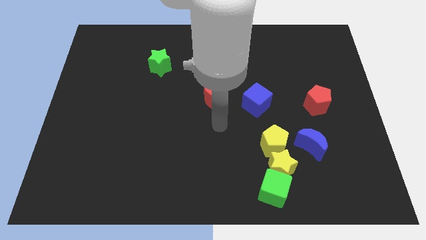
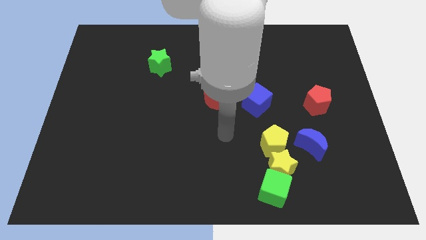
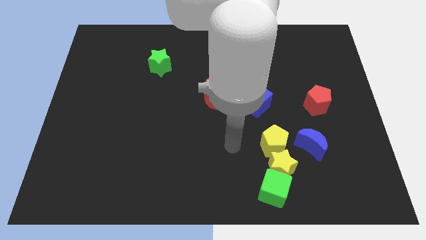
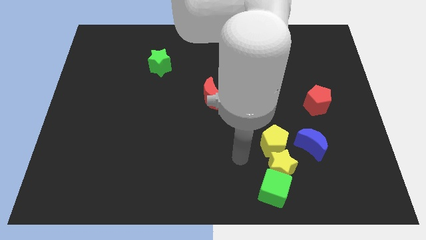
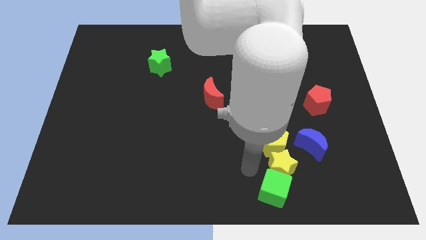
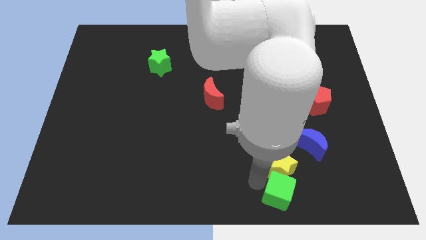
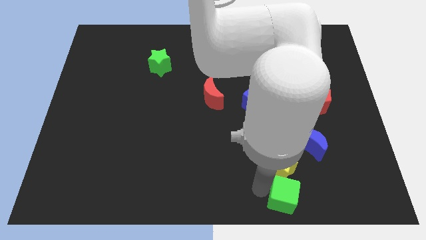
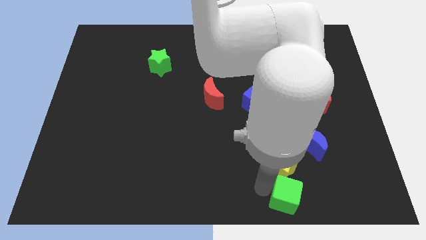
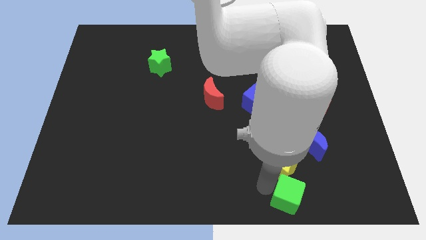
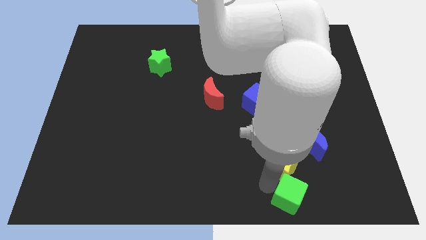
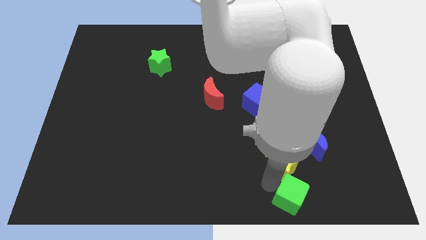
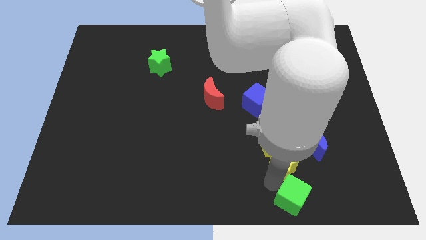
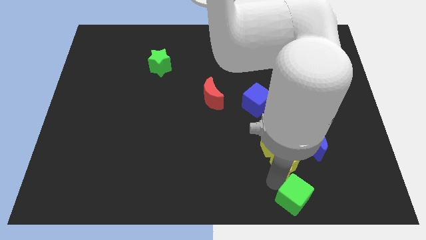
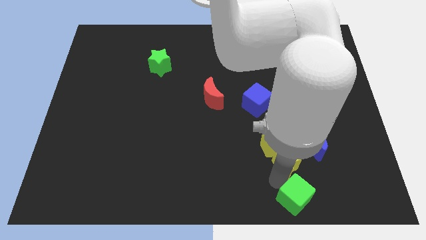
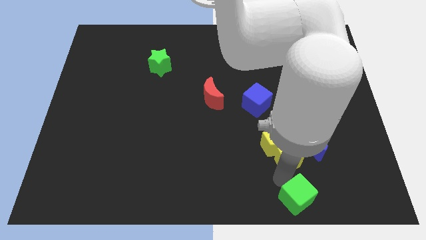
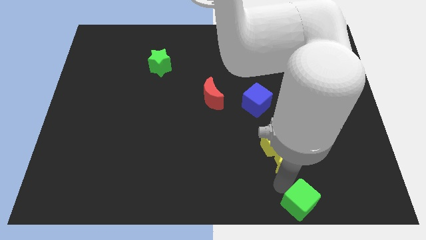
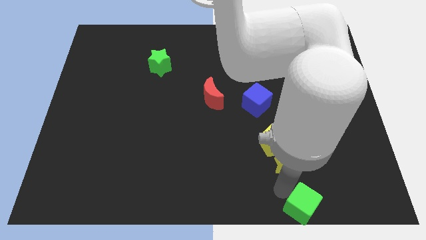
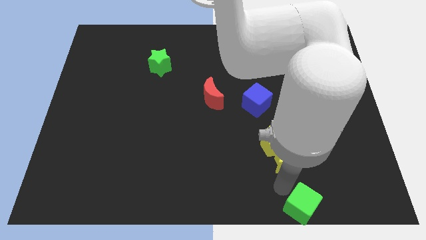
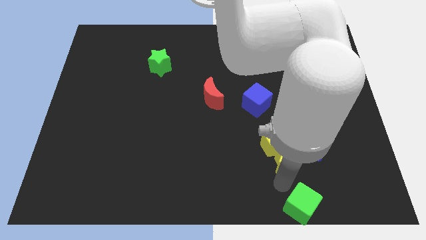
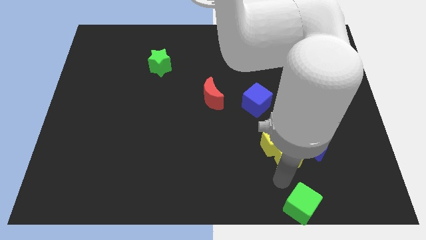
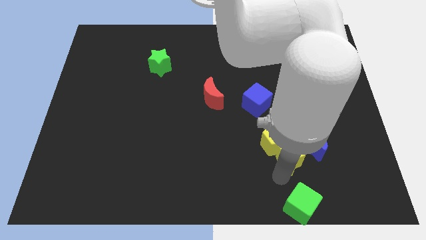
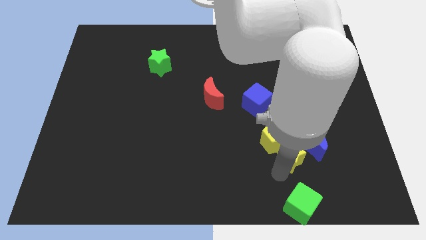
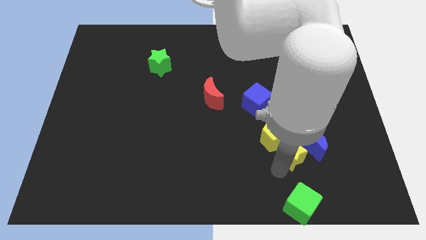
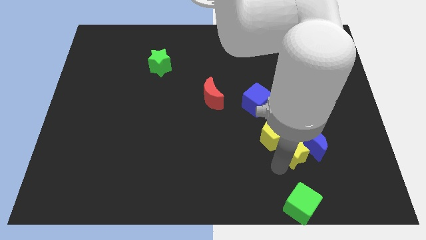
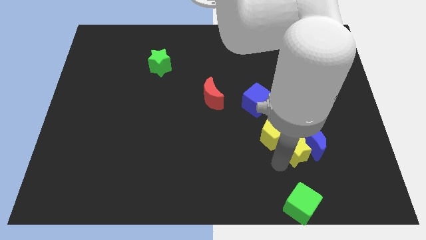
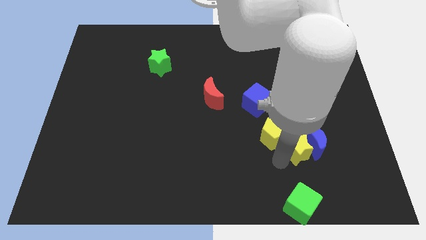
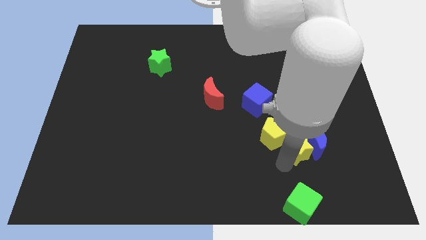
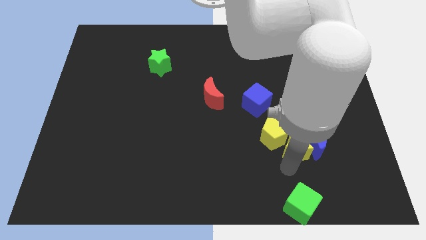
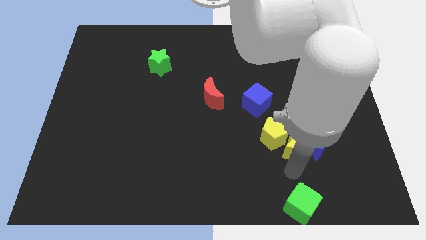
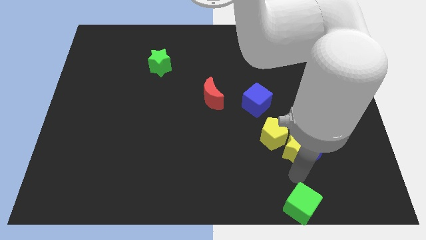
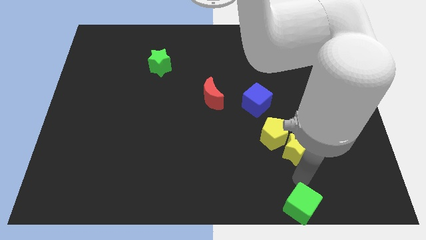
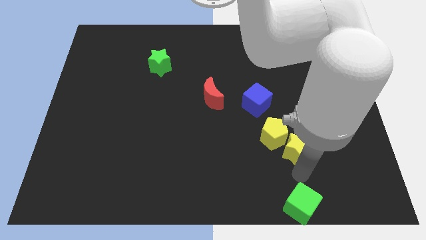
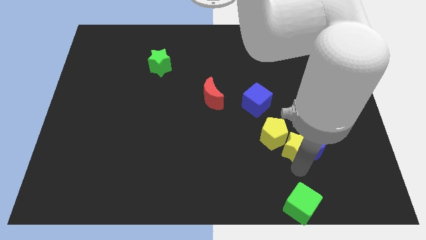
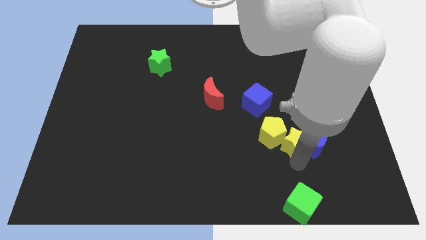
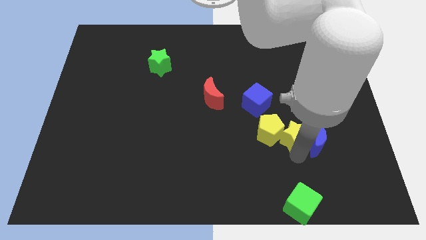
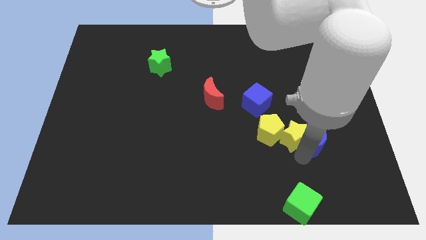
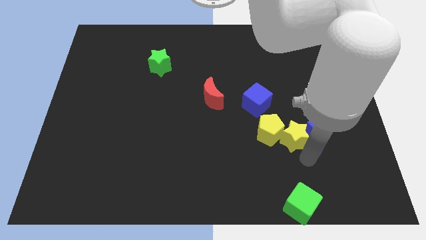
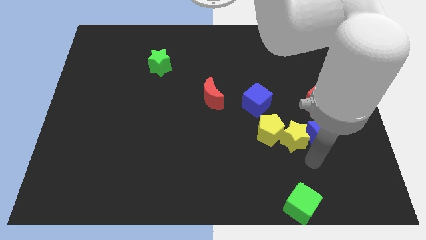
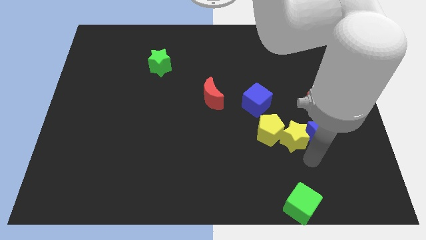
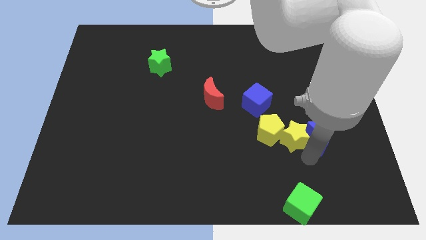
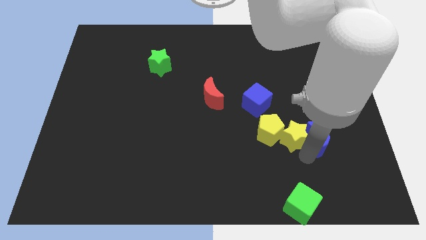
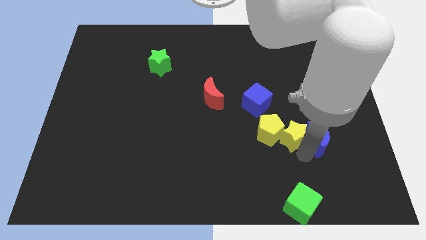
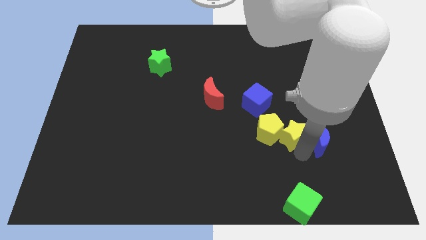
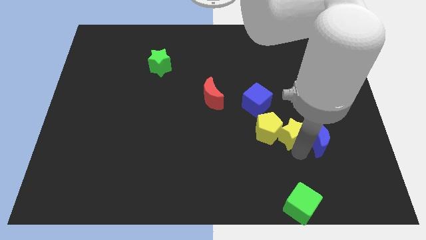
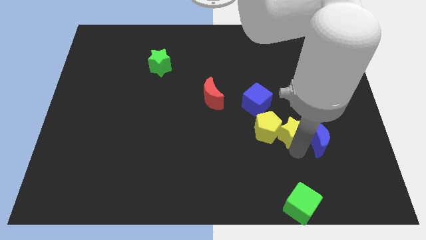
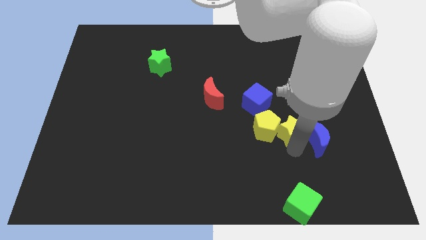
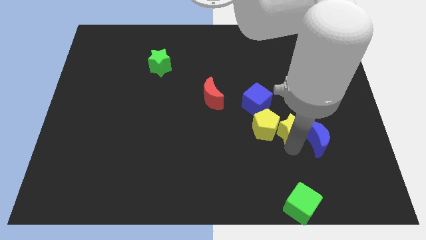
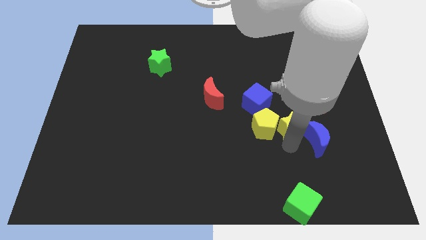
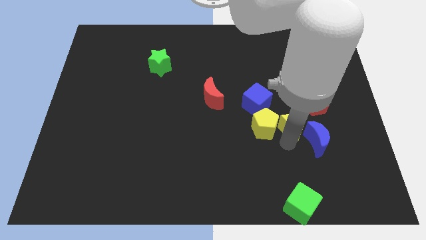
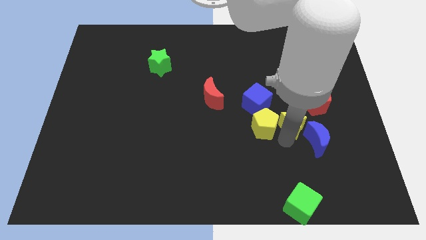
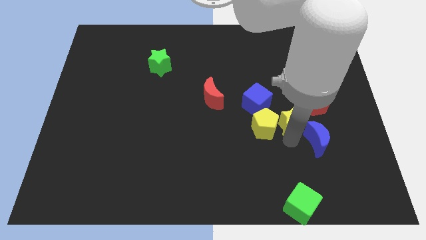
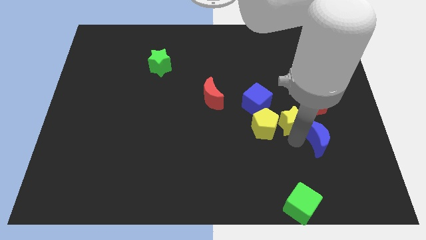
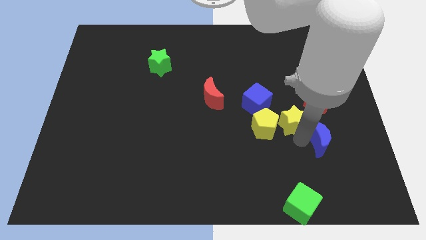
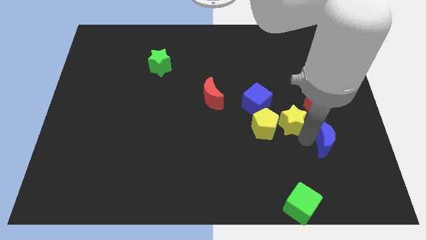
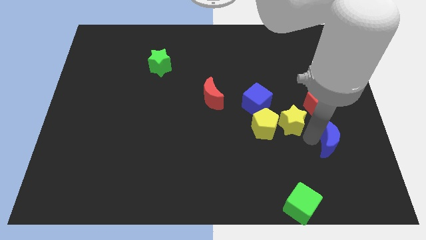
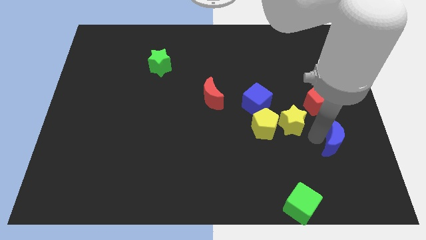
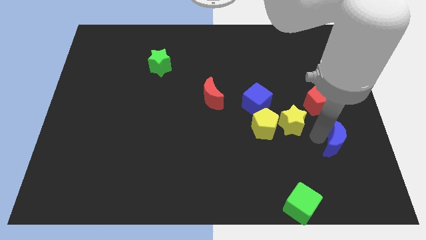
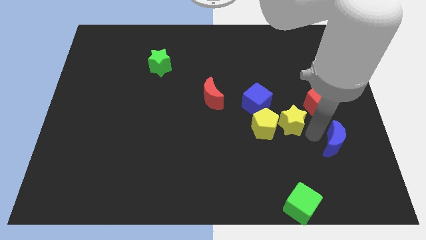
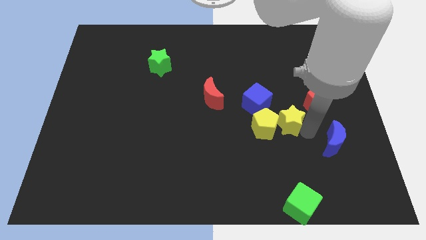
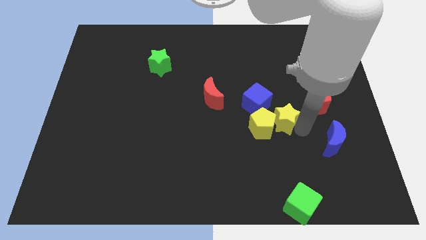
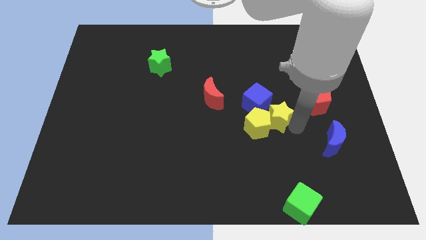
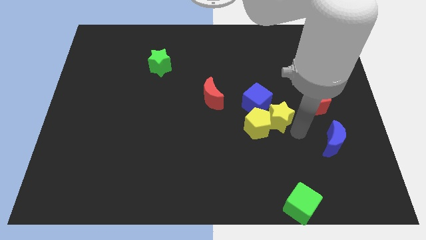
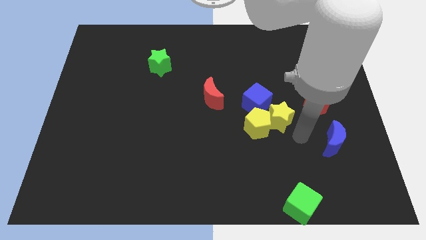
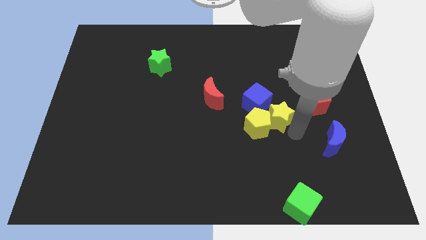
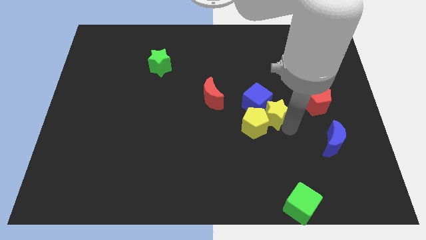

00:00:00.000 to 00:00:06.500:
push the yellow star close to the blue cube
